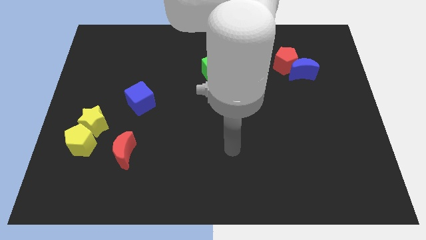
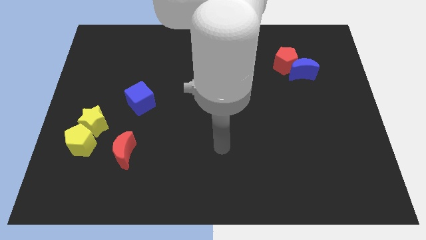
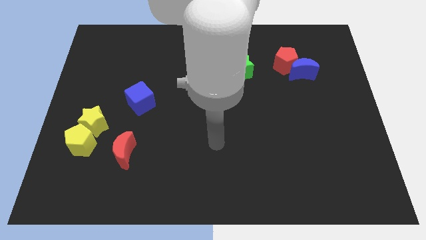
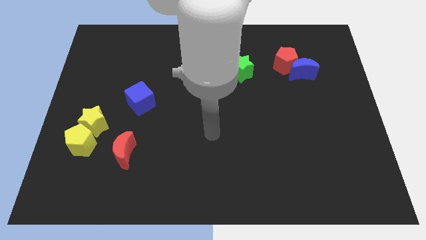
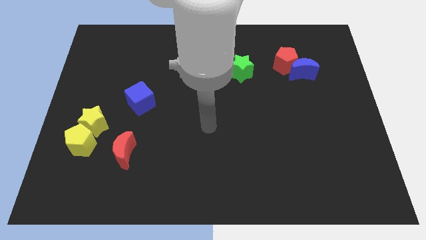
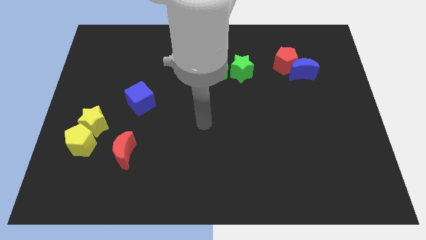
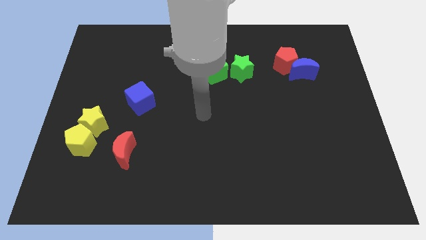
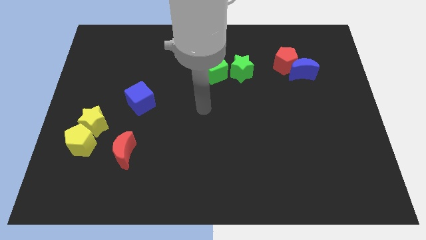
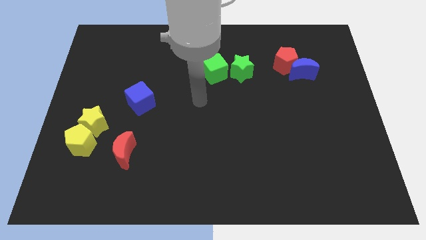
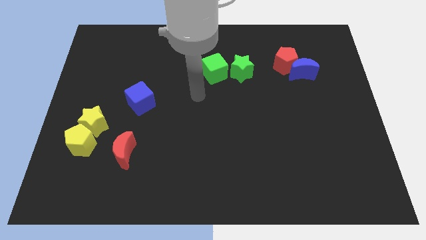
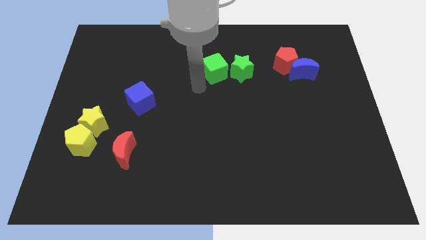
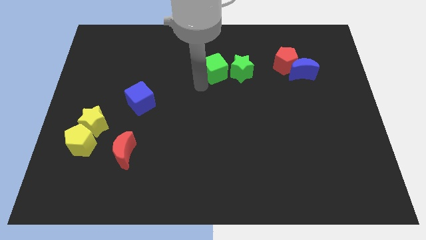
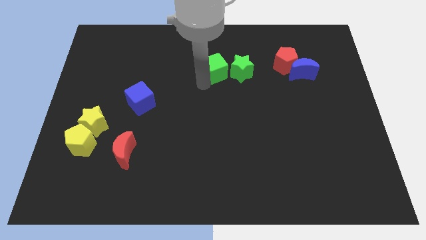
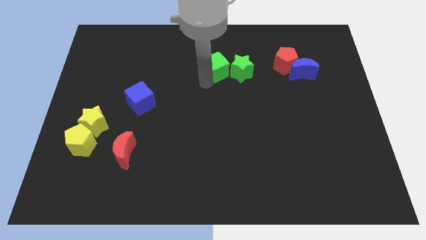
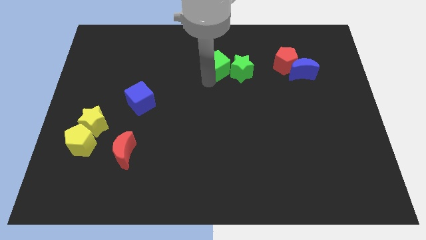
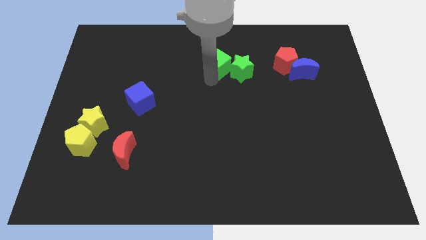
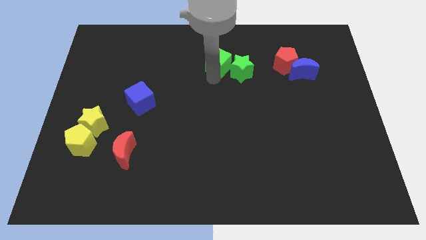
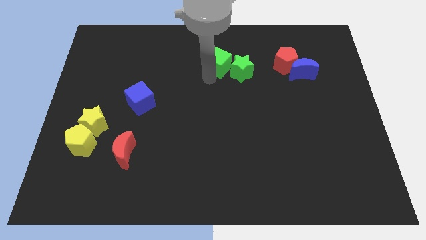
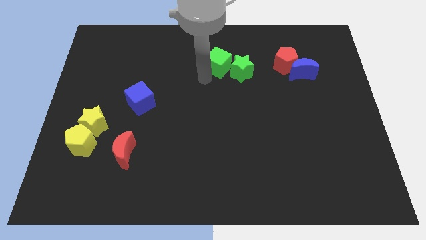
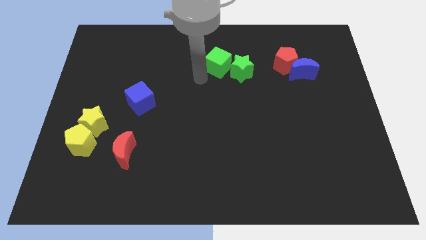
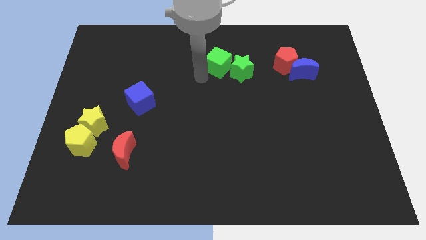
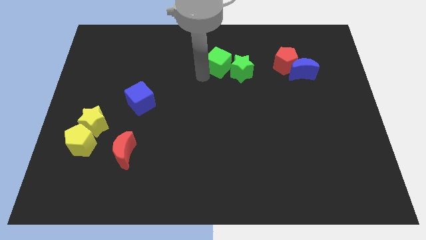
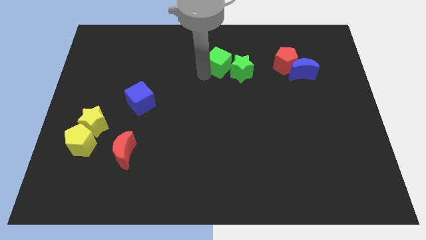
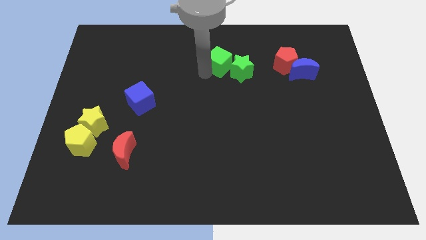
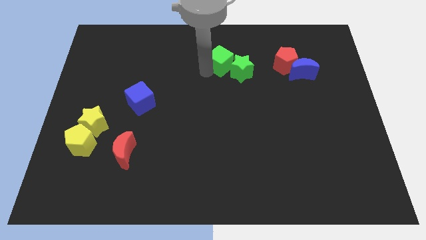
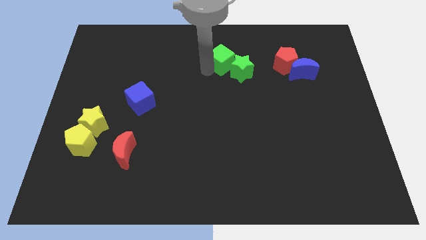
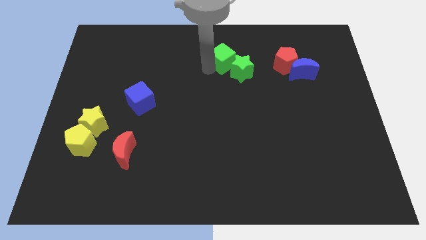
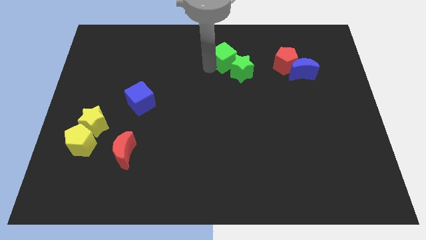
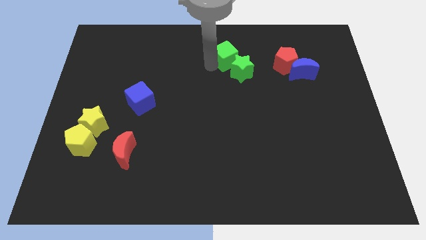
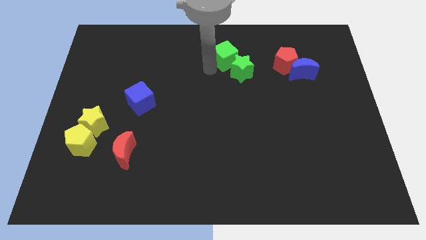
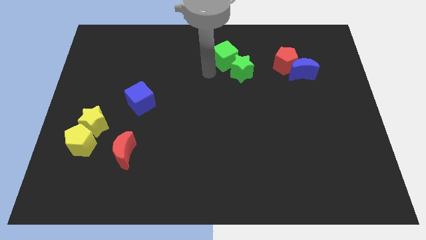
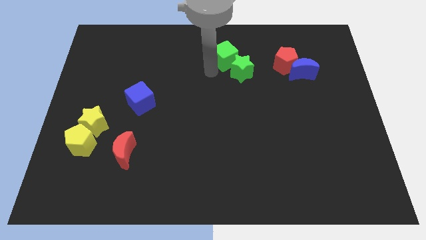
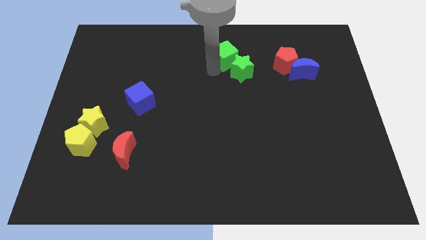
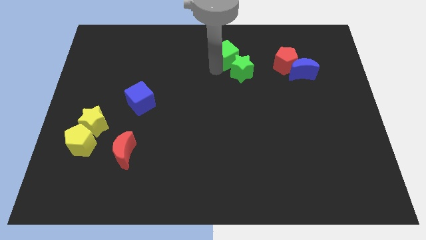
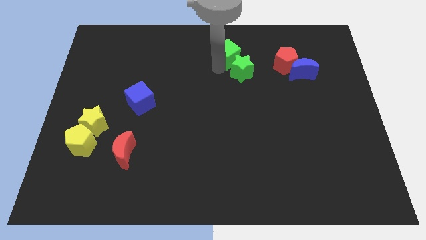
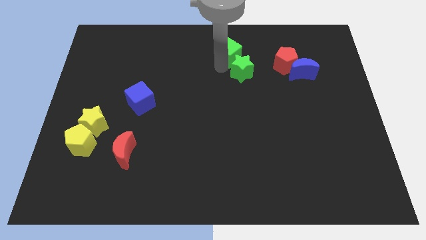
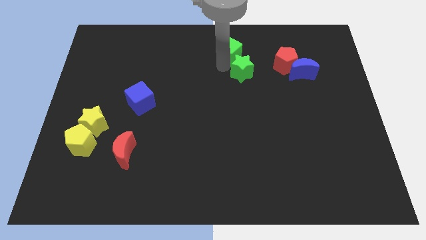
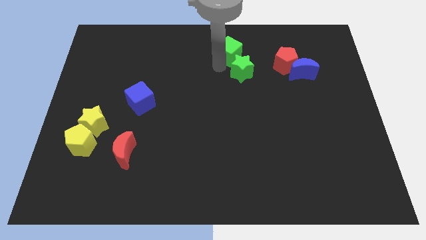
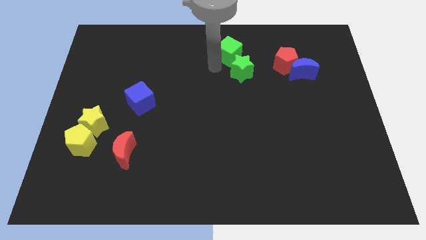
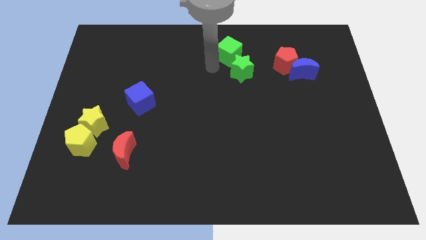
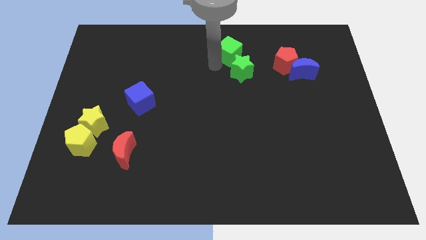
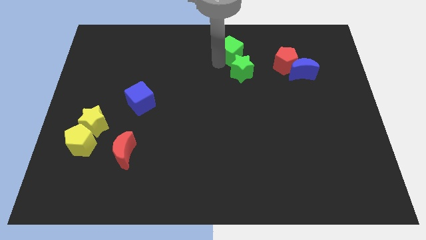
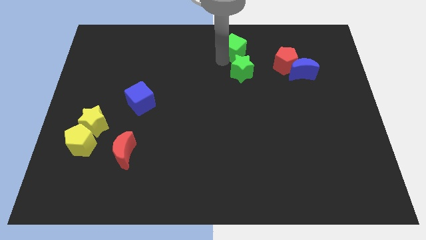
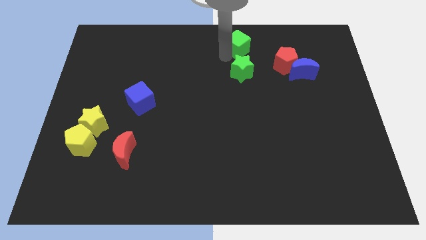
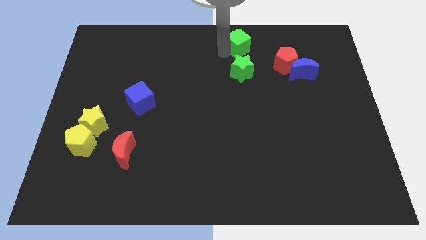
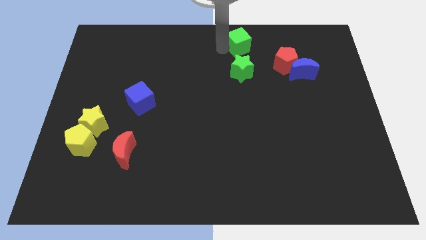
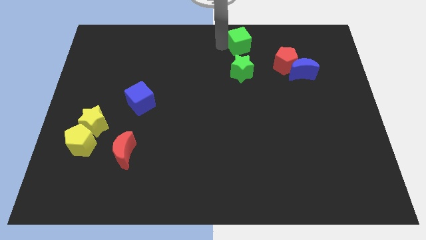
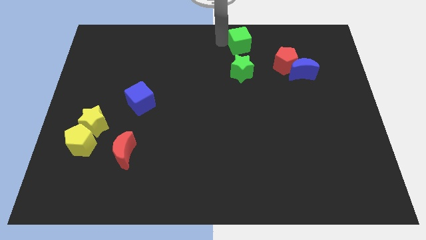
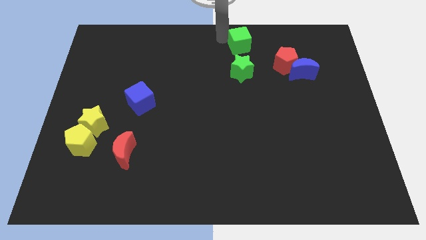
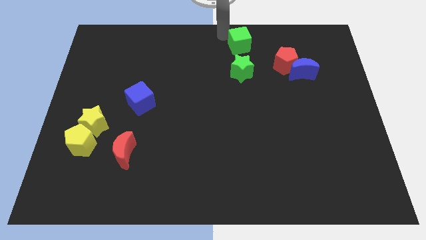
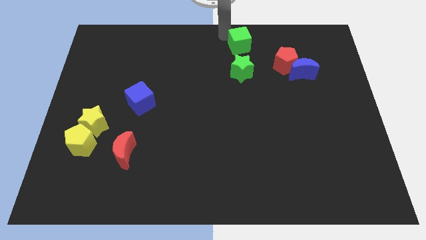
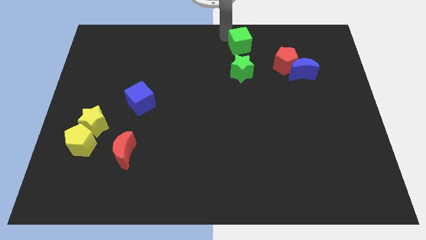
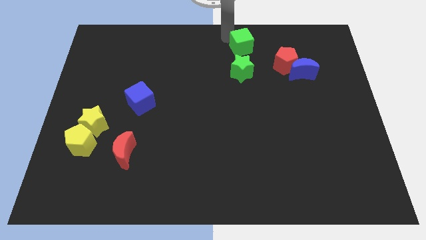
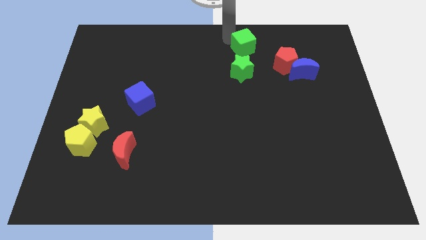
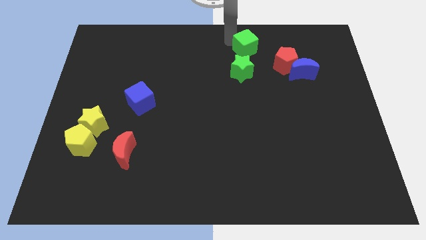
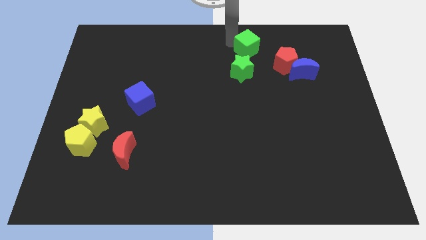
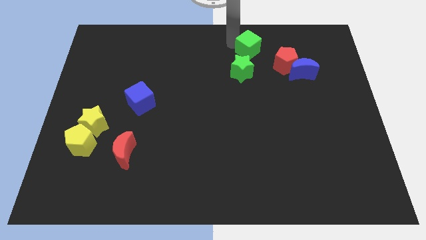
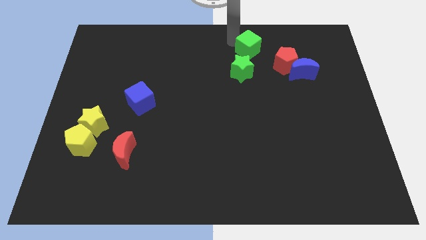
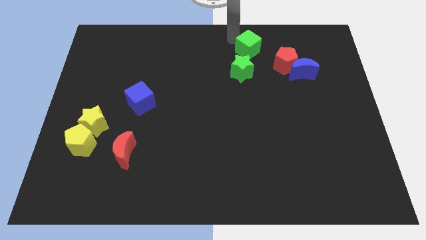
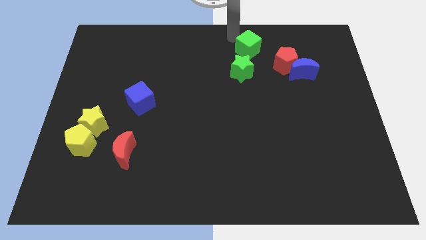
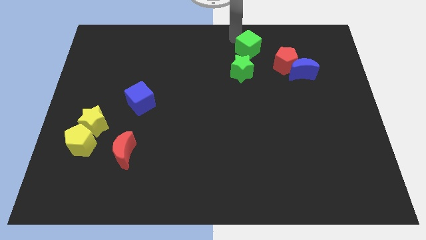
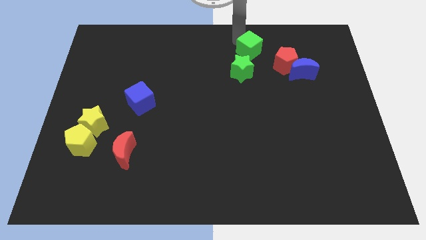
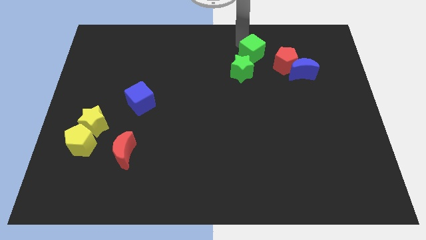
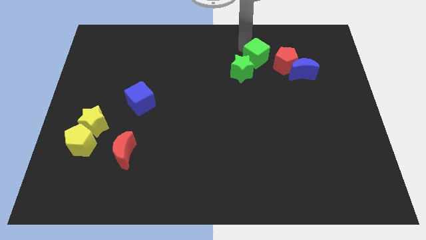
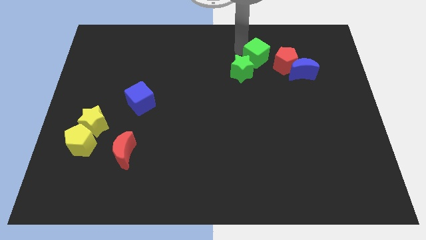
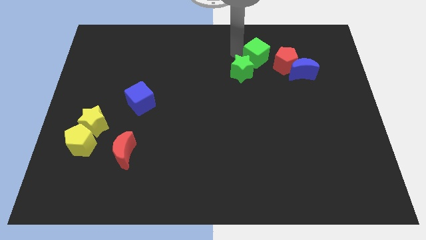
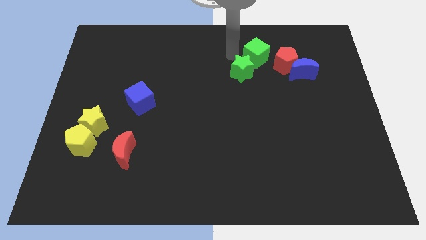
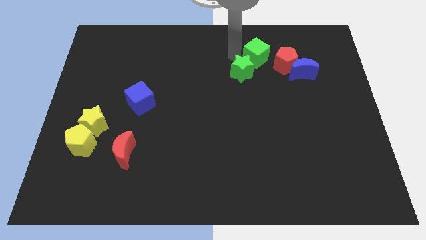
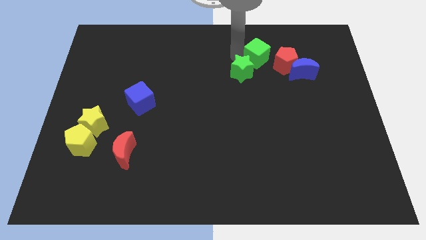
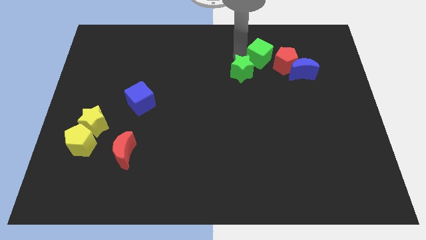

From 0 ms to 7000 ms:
slide the green cube to the top left of the blue moon
